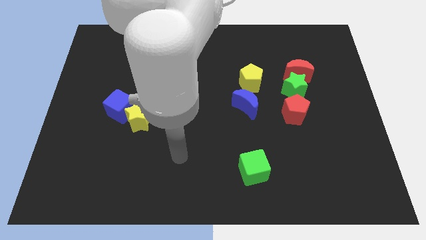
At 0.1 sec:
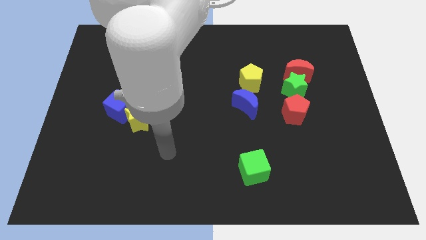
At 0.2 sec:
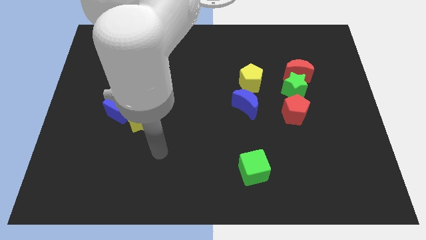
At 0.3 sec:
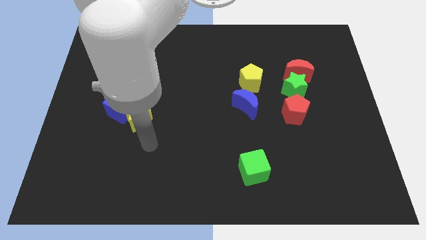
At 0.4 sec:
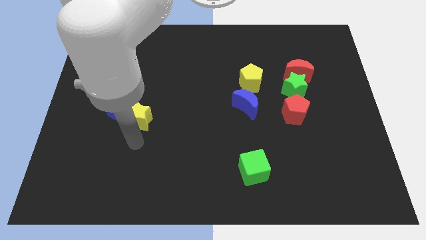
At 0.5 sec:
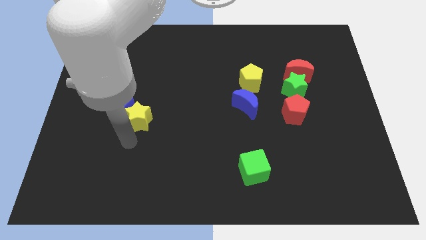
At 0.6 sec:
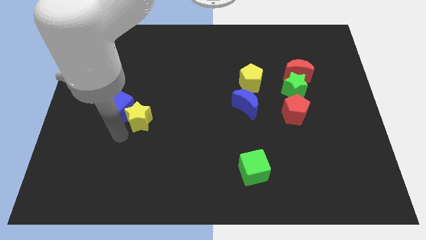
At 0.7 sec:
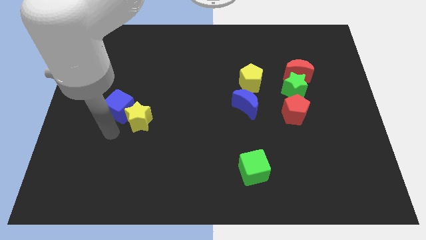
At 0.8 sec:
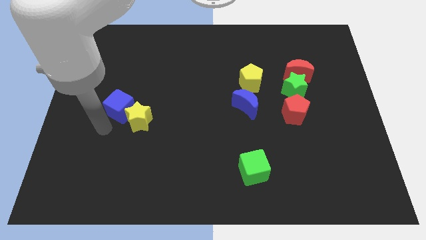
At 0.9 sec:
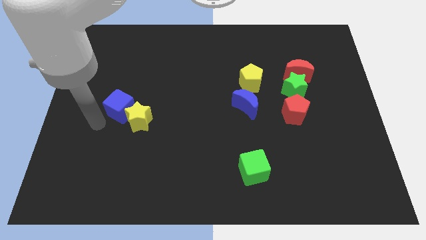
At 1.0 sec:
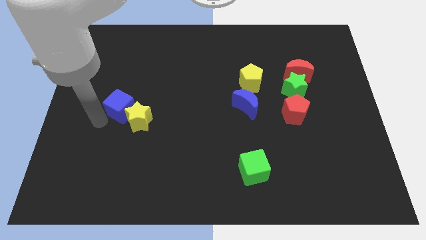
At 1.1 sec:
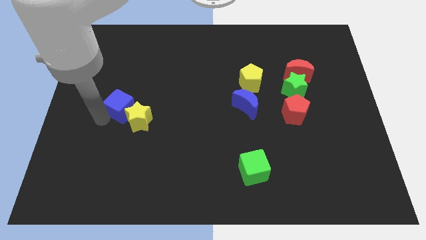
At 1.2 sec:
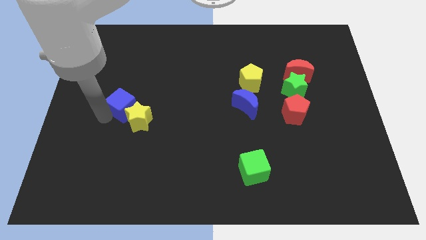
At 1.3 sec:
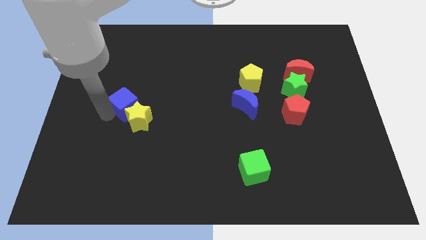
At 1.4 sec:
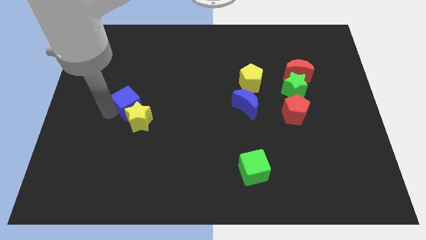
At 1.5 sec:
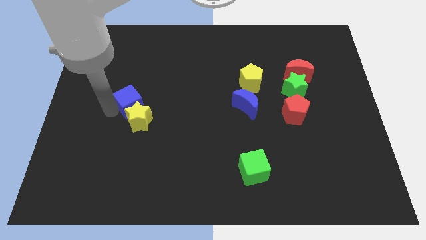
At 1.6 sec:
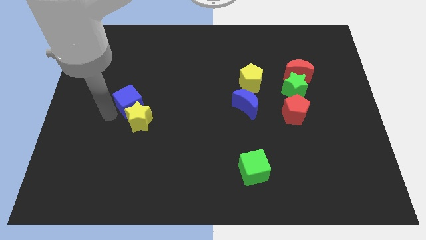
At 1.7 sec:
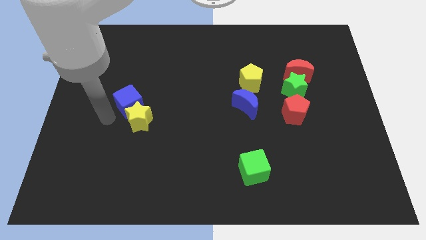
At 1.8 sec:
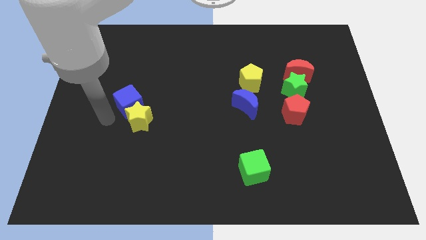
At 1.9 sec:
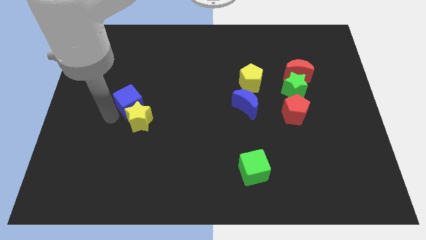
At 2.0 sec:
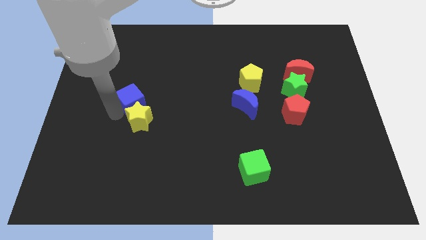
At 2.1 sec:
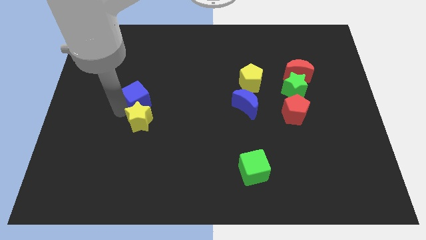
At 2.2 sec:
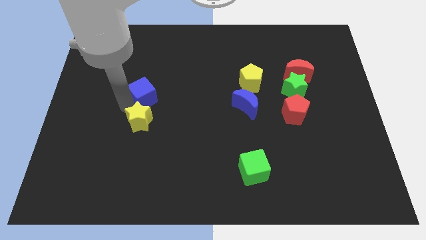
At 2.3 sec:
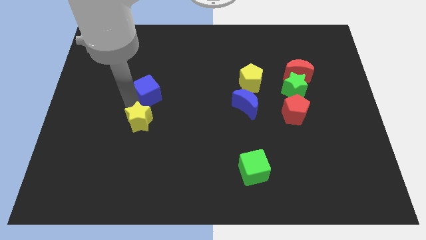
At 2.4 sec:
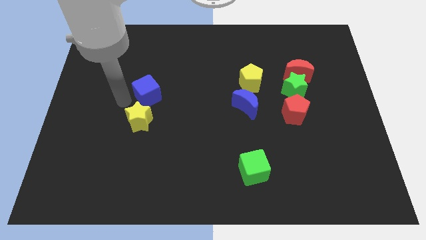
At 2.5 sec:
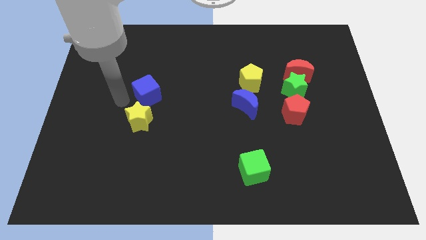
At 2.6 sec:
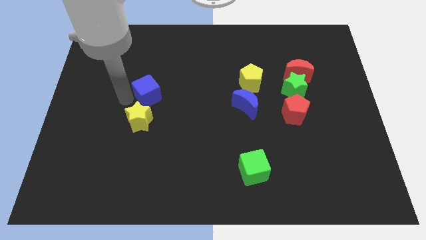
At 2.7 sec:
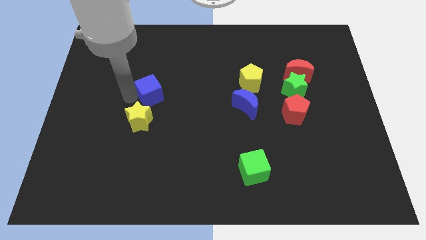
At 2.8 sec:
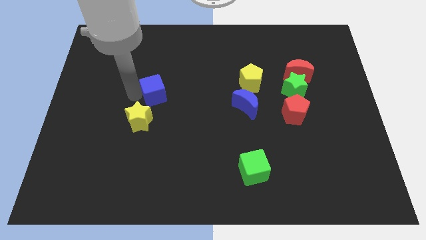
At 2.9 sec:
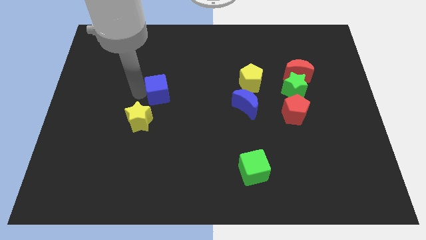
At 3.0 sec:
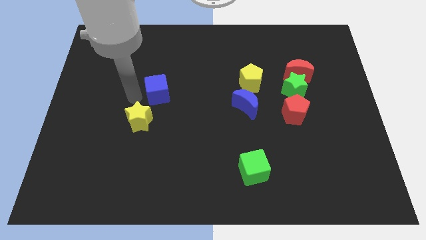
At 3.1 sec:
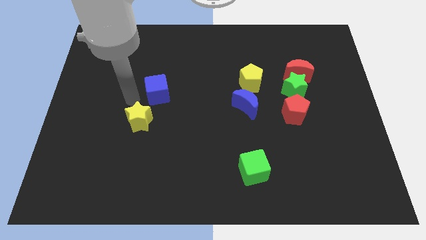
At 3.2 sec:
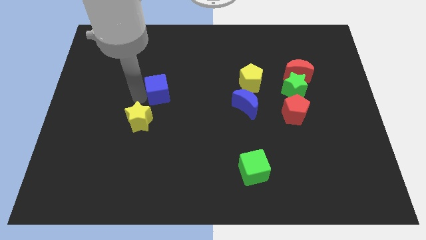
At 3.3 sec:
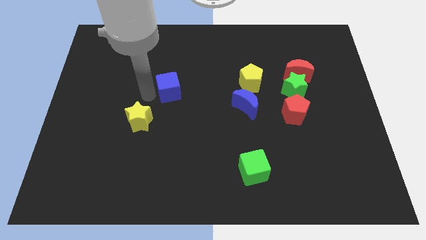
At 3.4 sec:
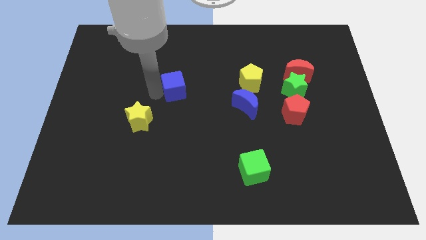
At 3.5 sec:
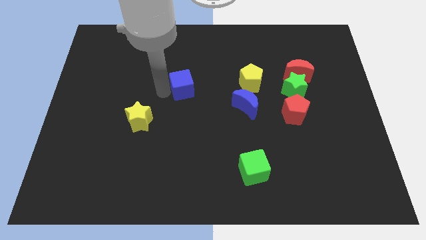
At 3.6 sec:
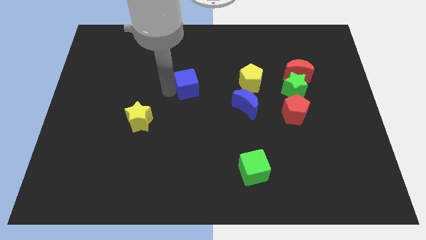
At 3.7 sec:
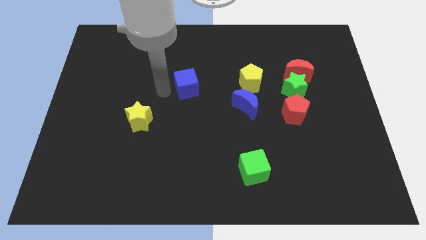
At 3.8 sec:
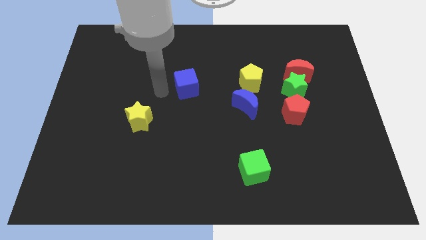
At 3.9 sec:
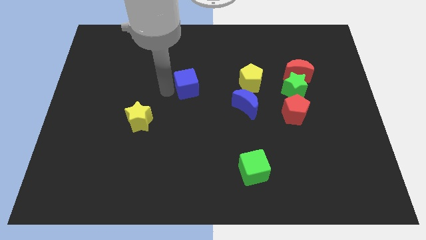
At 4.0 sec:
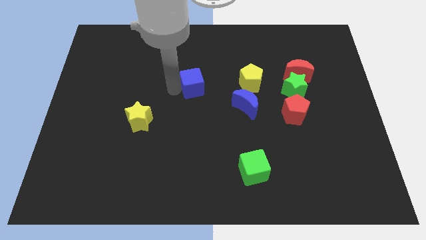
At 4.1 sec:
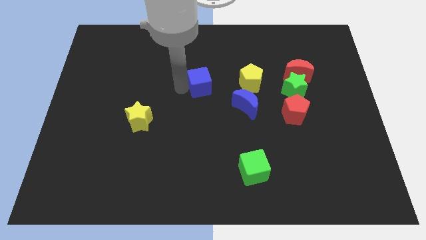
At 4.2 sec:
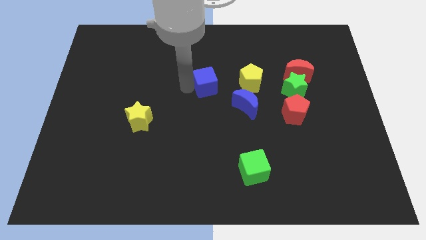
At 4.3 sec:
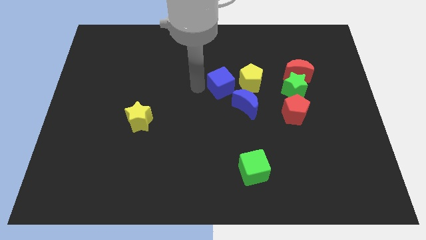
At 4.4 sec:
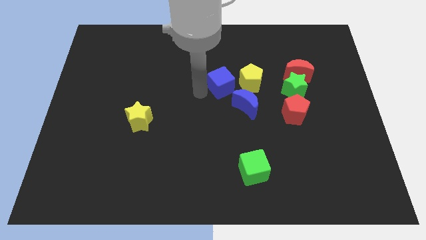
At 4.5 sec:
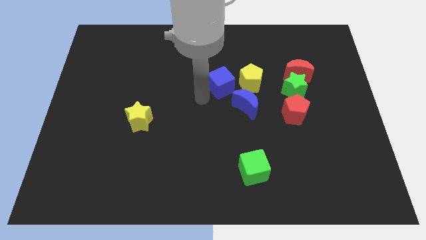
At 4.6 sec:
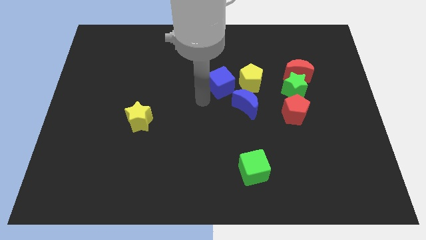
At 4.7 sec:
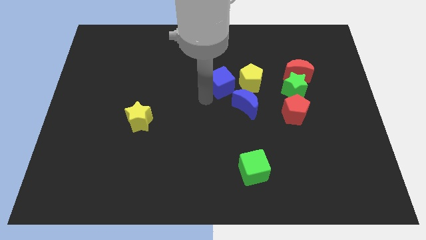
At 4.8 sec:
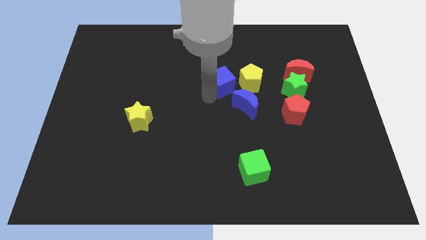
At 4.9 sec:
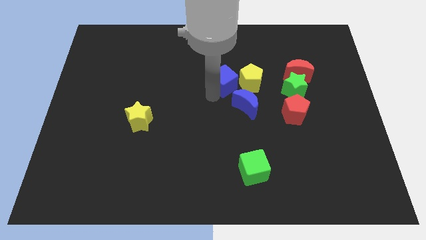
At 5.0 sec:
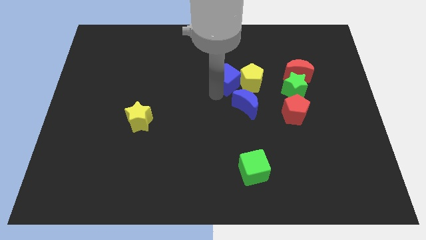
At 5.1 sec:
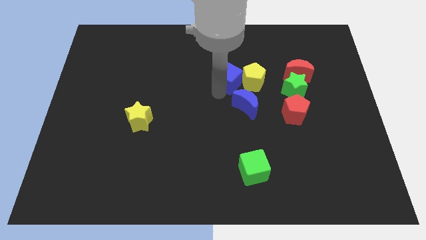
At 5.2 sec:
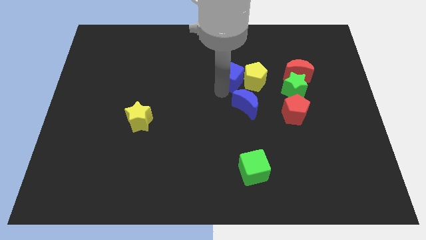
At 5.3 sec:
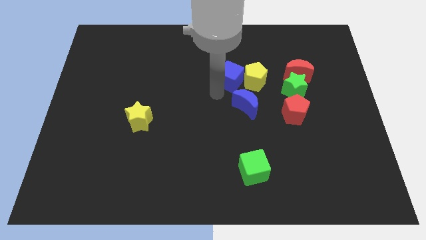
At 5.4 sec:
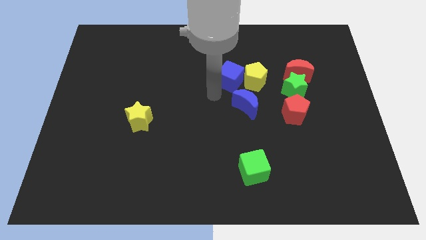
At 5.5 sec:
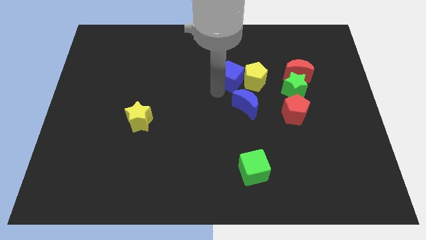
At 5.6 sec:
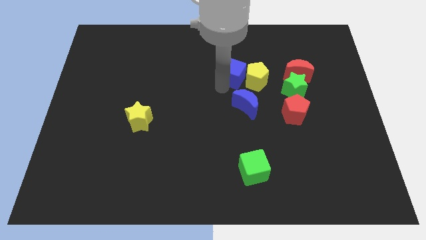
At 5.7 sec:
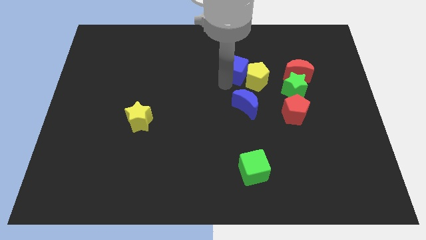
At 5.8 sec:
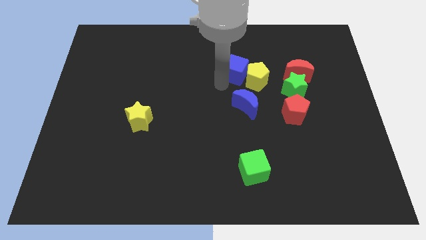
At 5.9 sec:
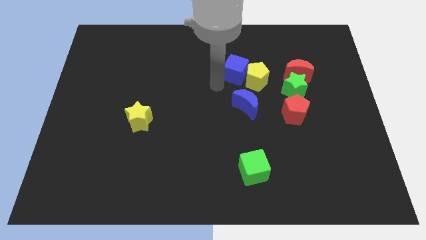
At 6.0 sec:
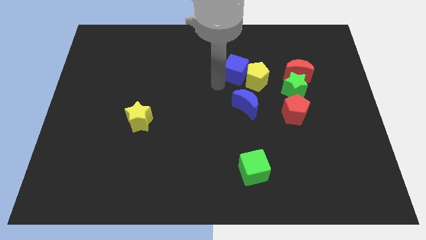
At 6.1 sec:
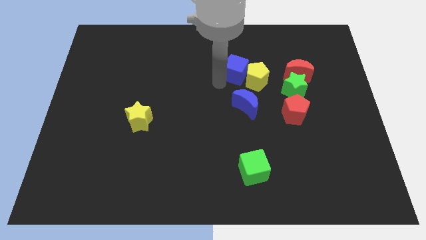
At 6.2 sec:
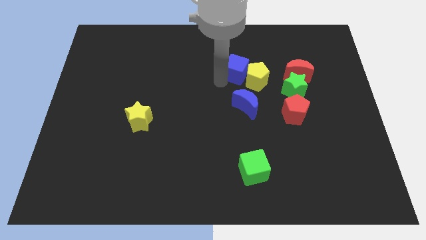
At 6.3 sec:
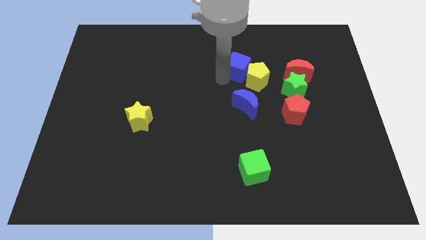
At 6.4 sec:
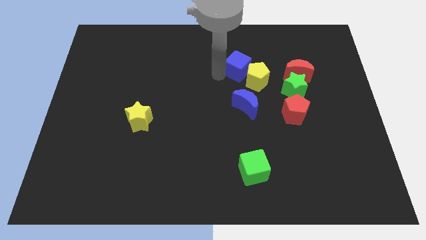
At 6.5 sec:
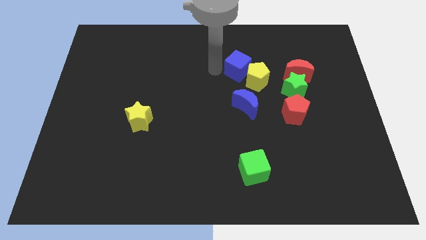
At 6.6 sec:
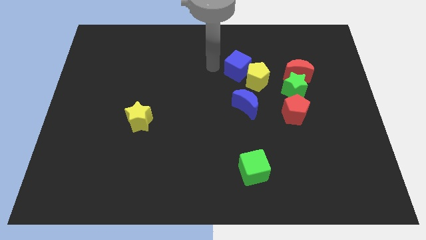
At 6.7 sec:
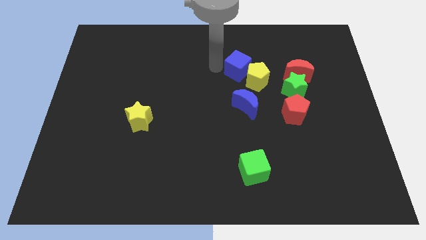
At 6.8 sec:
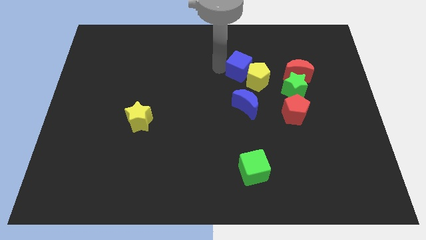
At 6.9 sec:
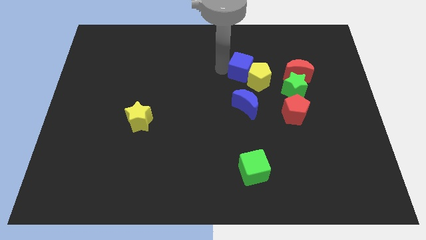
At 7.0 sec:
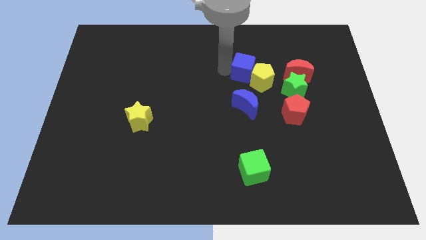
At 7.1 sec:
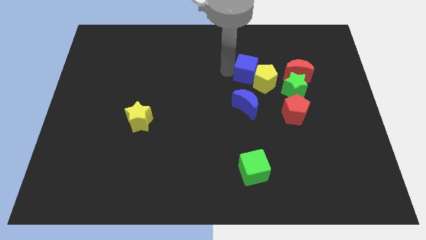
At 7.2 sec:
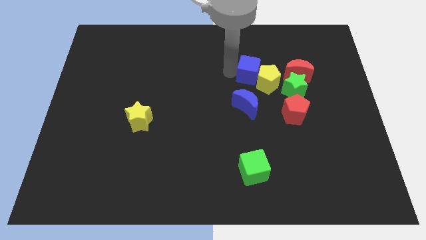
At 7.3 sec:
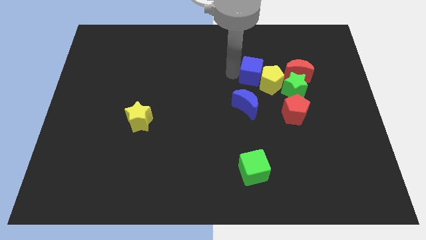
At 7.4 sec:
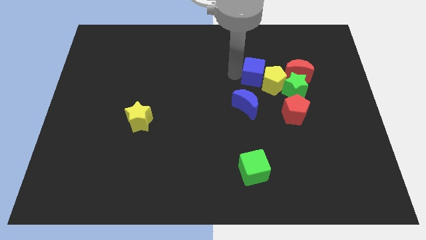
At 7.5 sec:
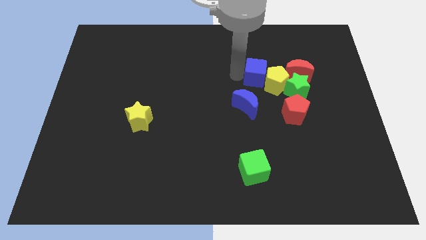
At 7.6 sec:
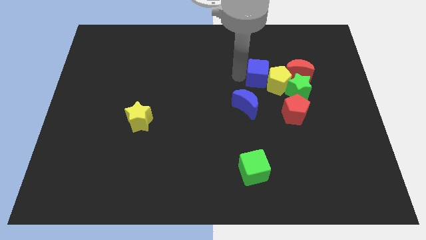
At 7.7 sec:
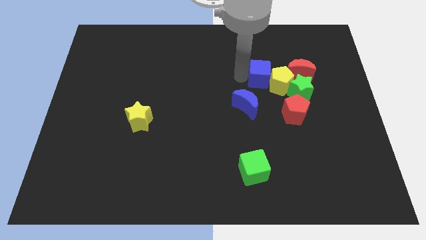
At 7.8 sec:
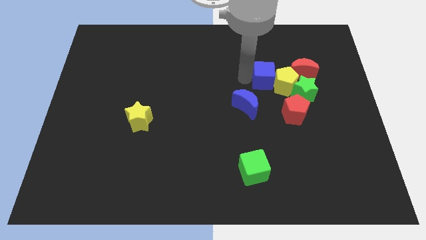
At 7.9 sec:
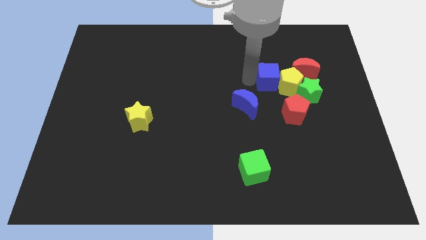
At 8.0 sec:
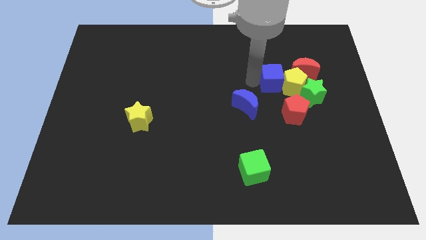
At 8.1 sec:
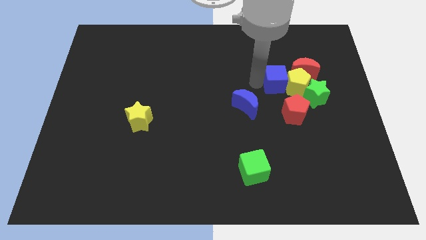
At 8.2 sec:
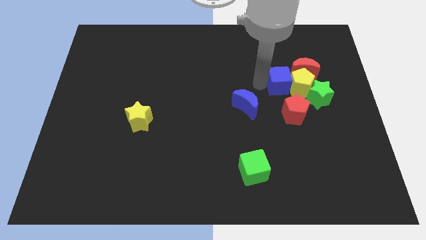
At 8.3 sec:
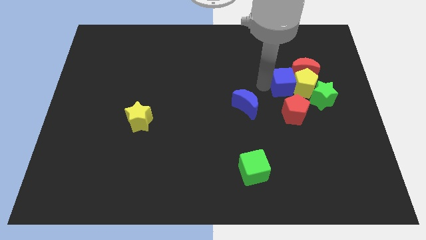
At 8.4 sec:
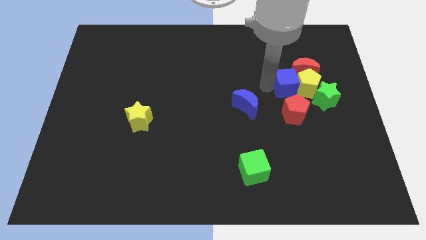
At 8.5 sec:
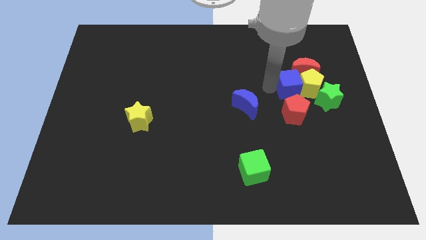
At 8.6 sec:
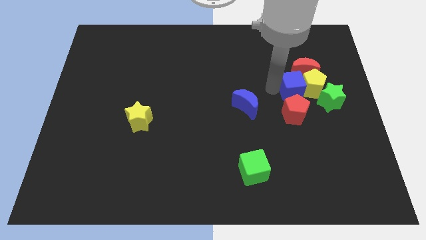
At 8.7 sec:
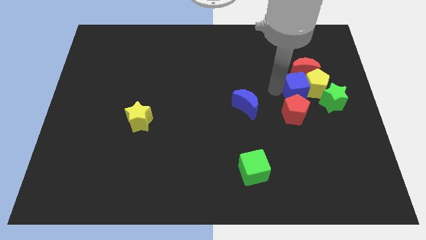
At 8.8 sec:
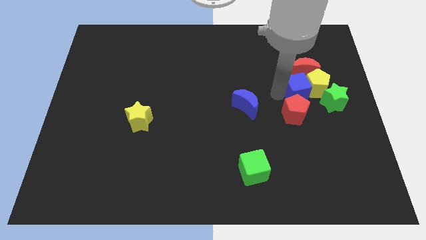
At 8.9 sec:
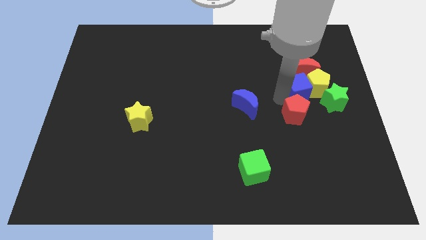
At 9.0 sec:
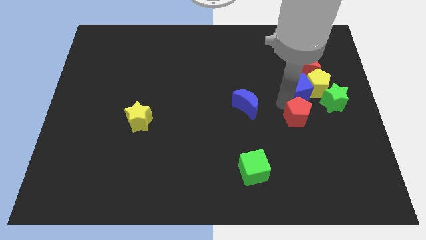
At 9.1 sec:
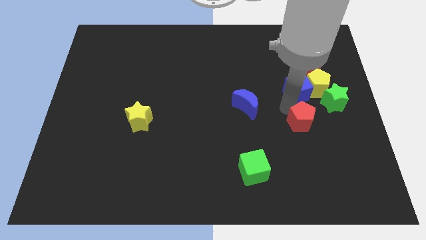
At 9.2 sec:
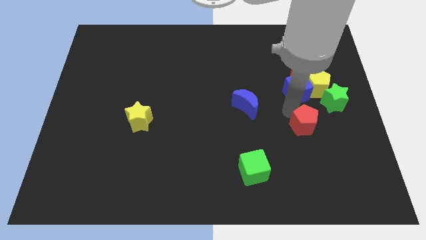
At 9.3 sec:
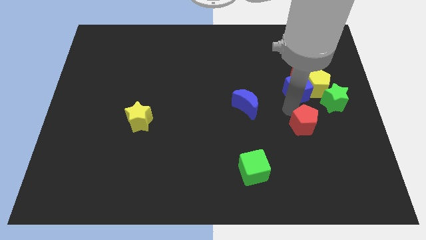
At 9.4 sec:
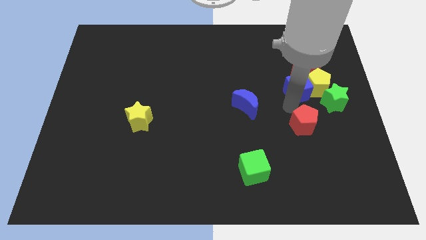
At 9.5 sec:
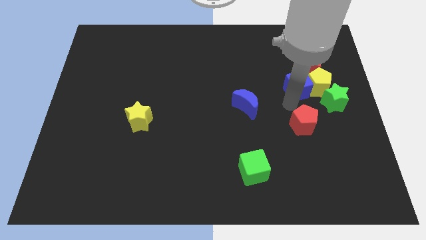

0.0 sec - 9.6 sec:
slide the blue cube close to the red moon
